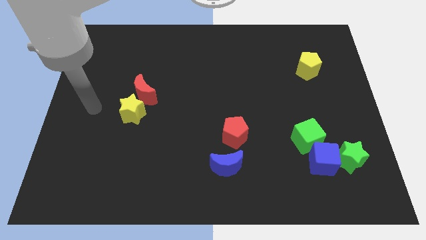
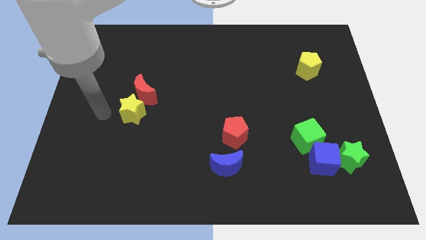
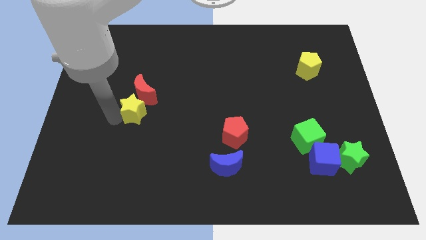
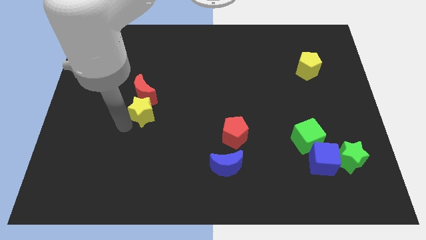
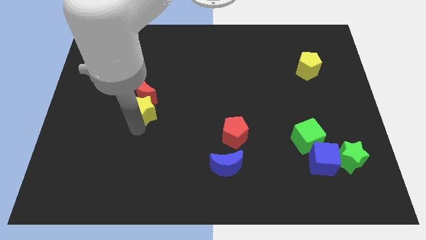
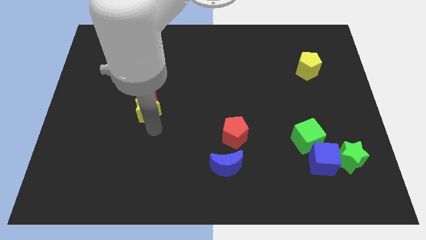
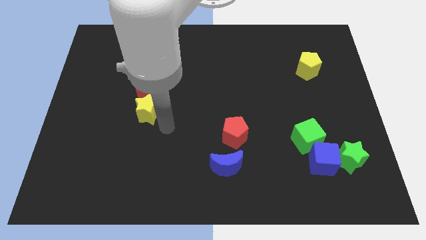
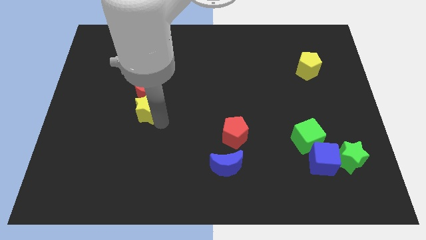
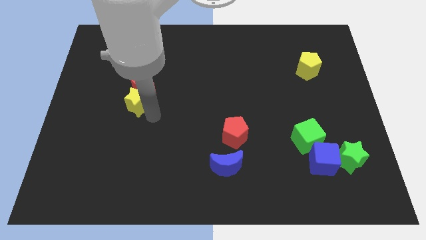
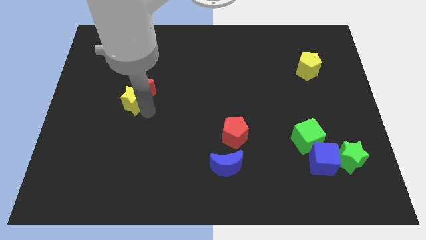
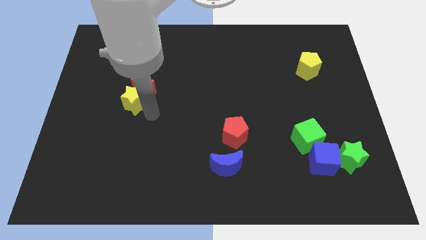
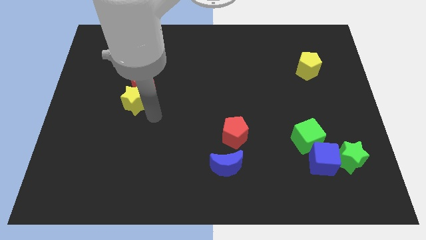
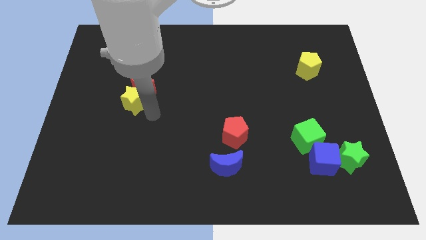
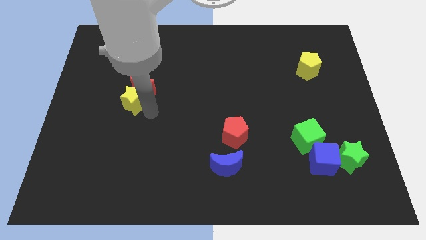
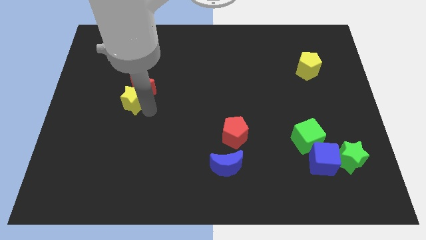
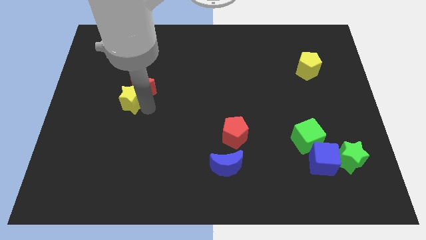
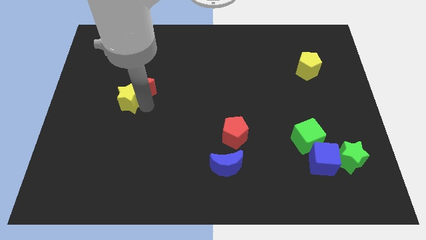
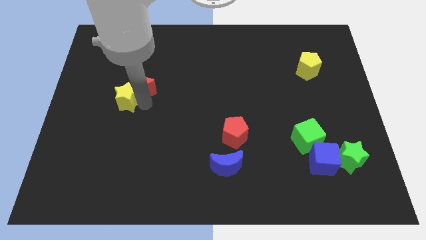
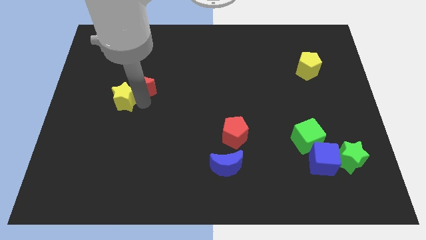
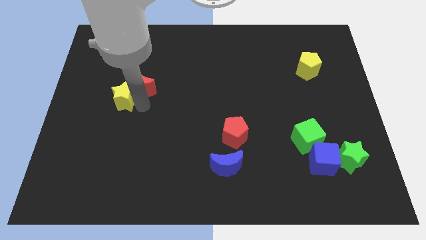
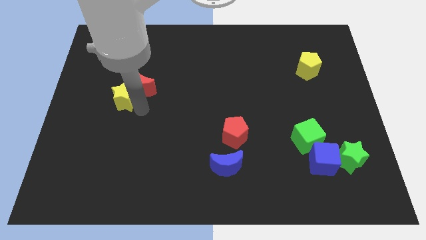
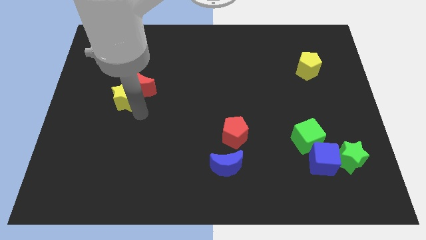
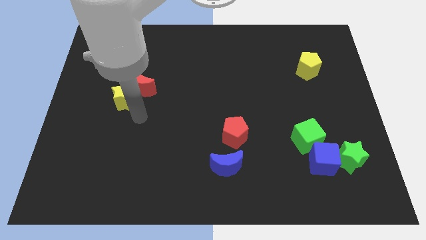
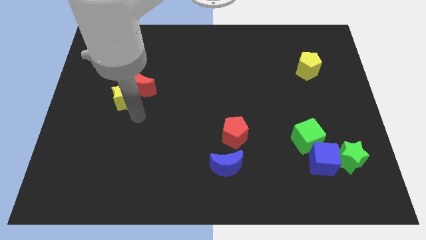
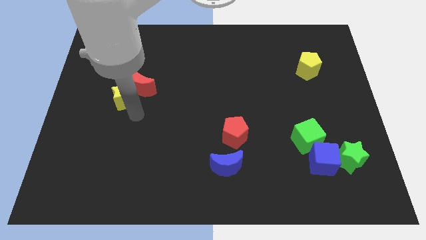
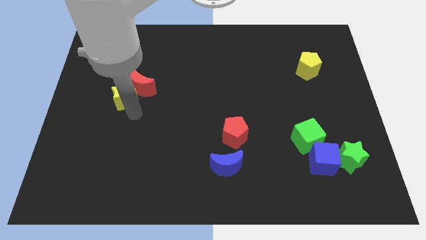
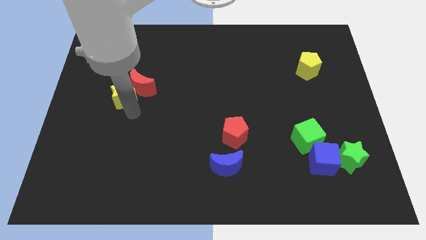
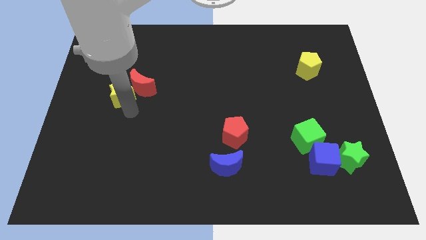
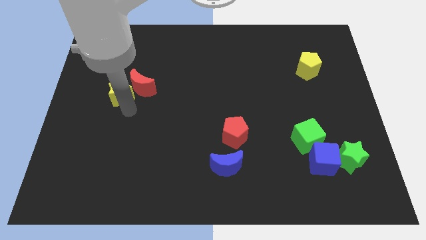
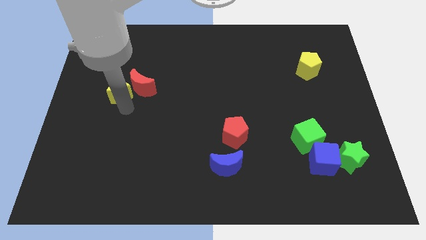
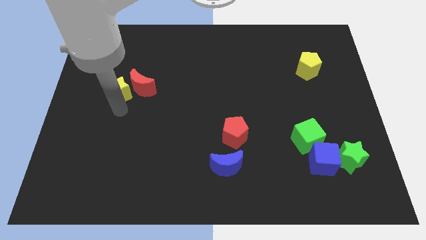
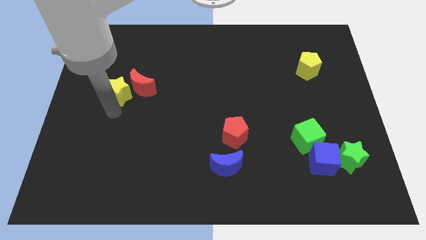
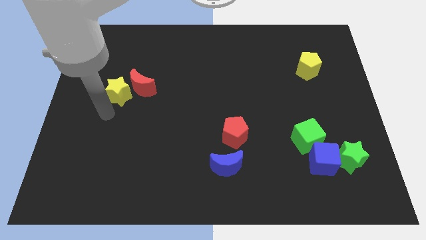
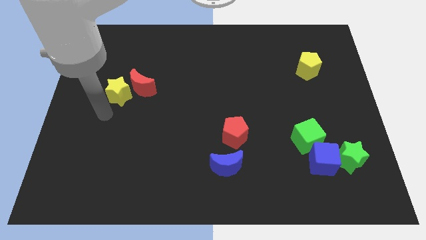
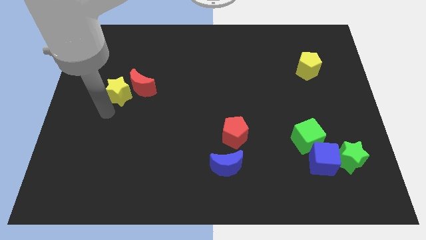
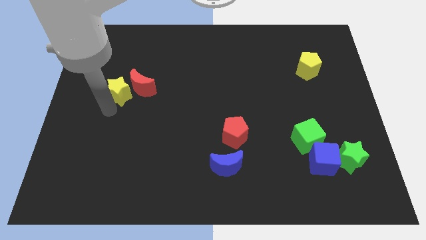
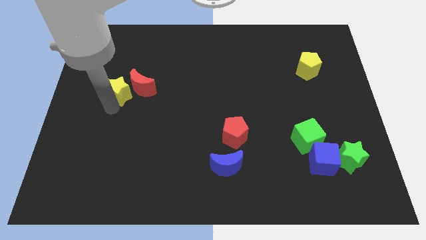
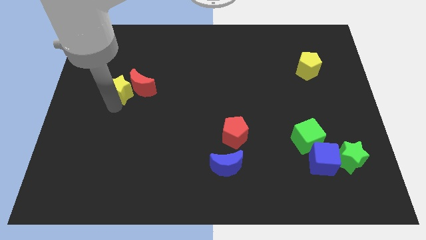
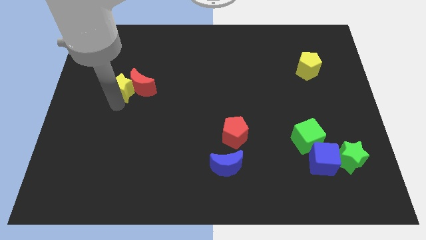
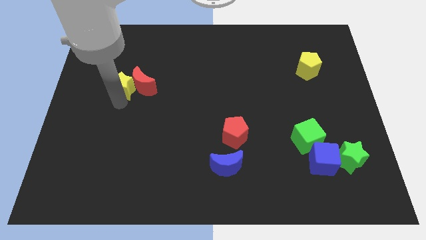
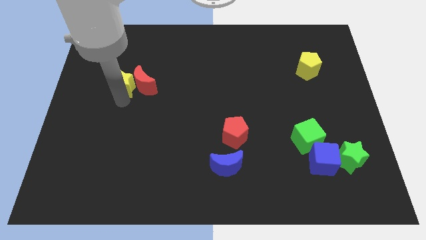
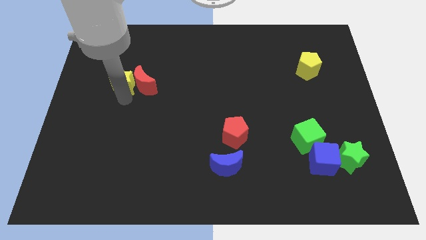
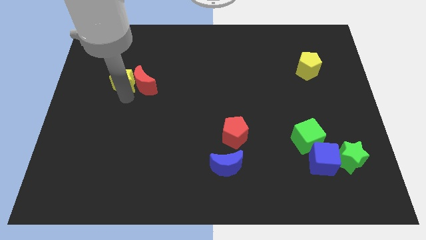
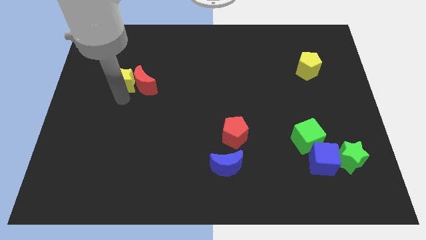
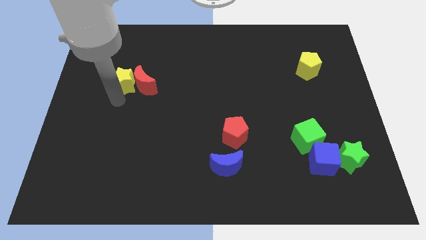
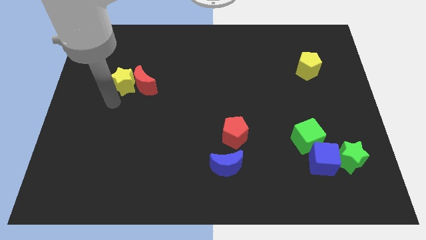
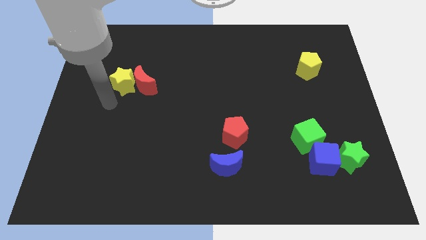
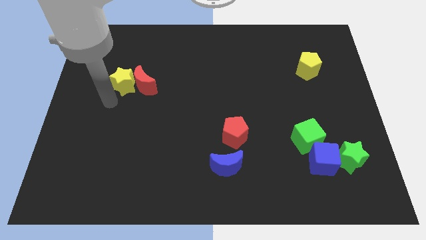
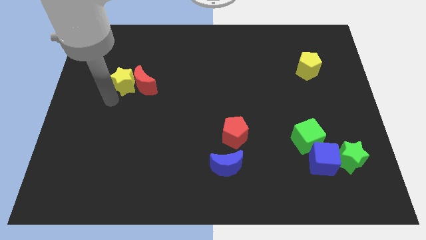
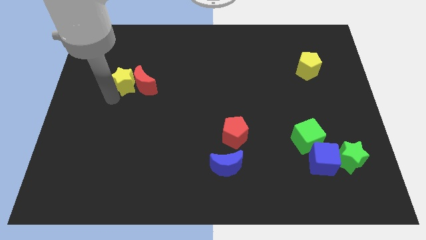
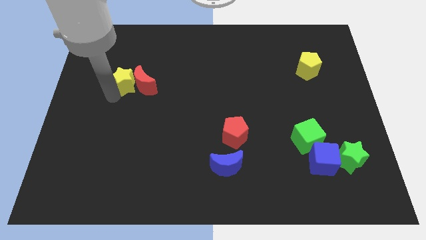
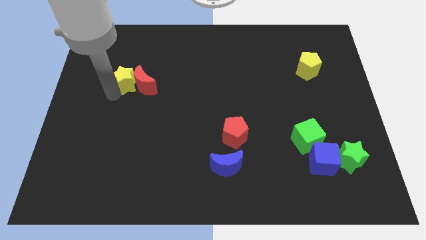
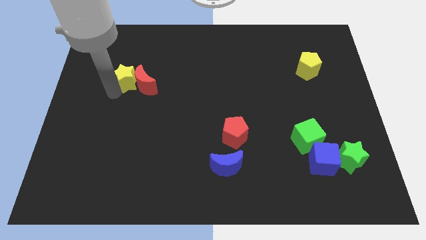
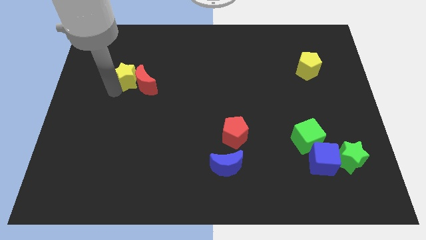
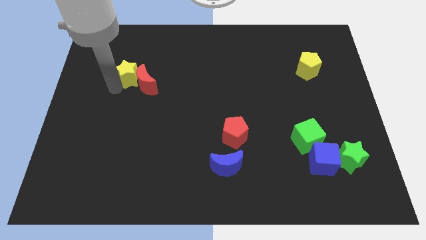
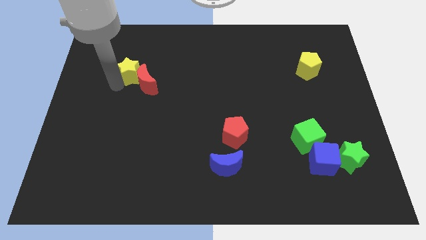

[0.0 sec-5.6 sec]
move the yellow star to the top of the red moon
